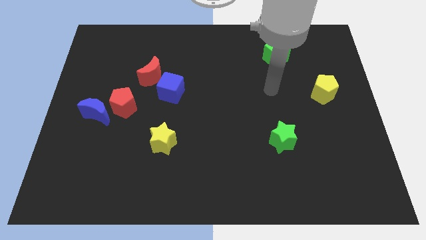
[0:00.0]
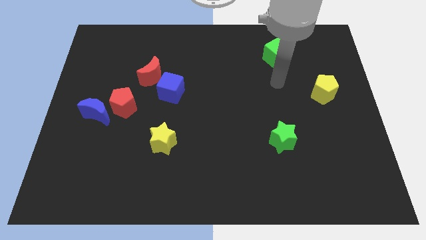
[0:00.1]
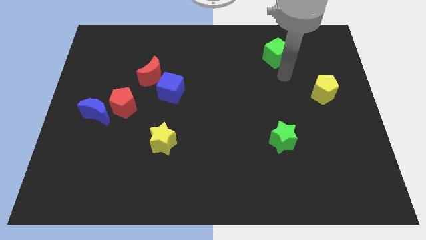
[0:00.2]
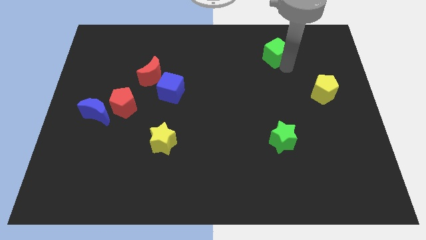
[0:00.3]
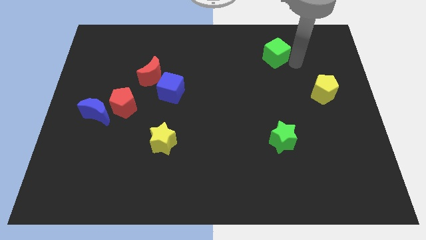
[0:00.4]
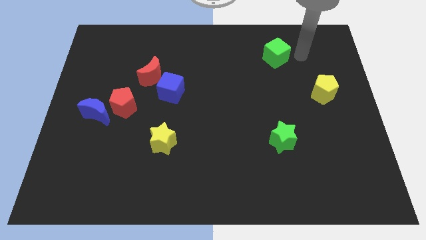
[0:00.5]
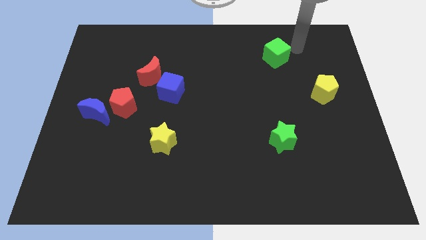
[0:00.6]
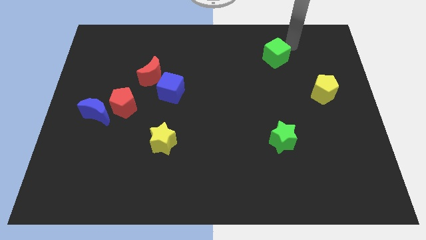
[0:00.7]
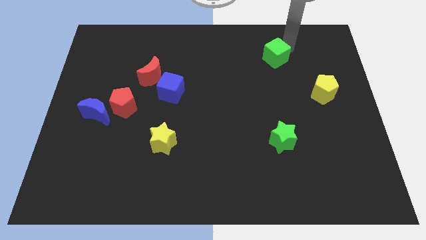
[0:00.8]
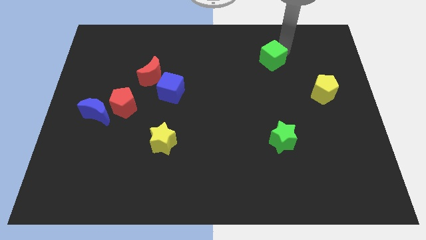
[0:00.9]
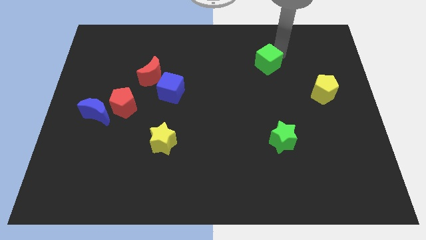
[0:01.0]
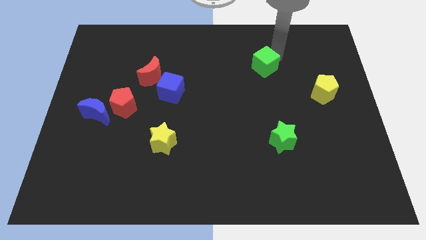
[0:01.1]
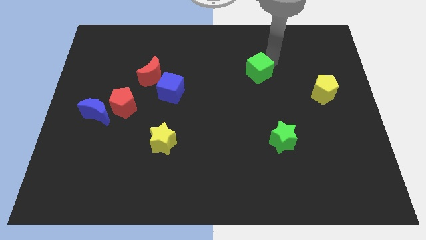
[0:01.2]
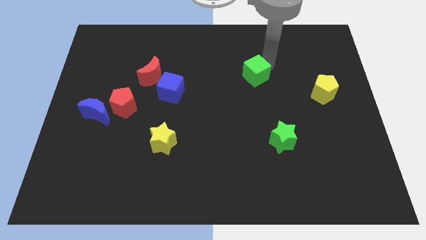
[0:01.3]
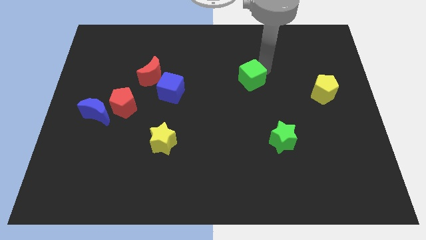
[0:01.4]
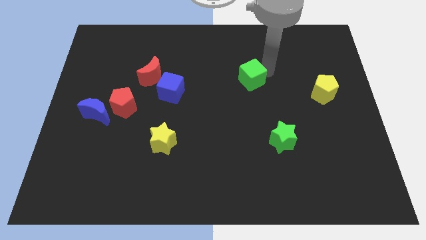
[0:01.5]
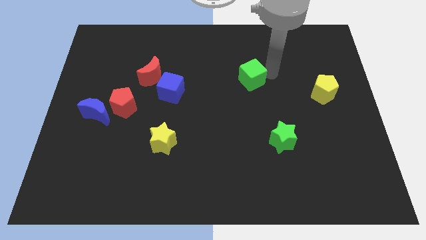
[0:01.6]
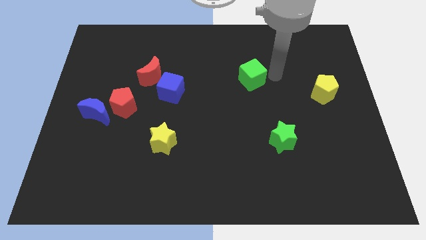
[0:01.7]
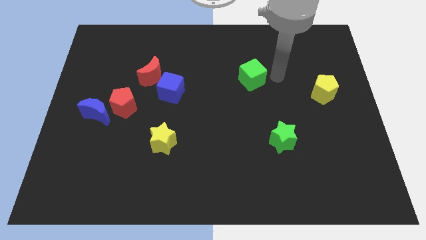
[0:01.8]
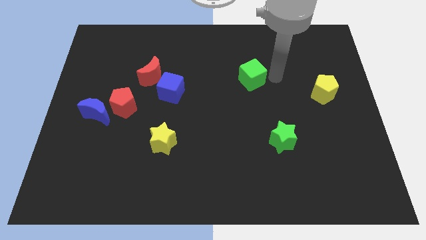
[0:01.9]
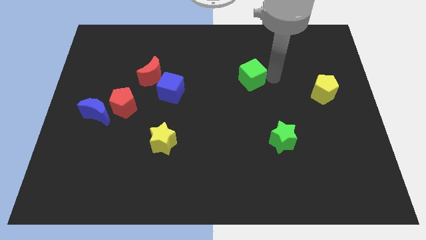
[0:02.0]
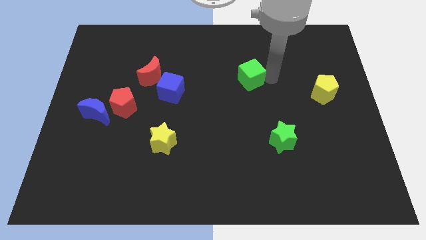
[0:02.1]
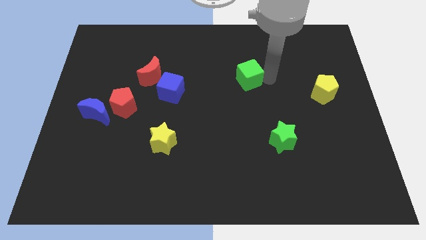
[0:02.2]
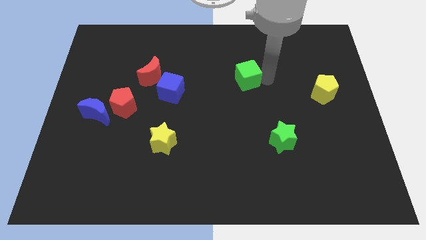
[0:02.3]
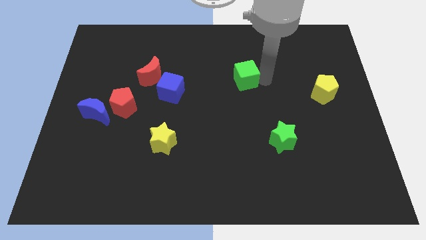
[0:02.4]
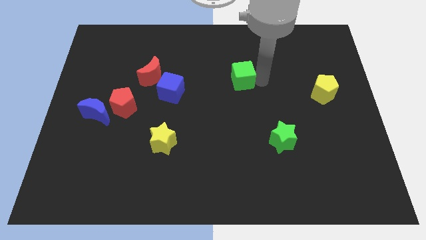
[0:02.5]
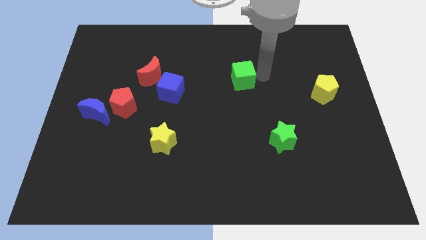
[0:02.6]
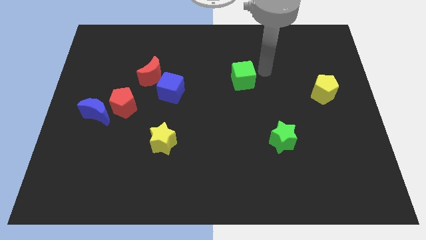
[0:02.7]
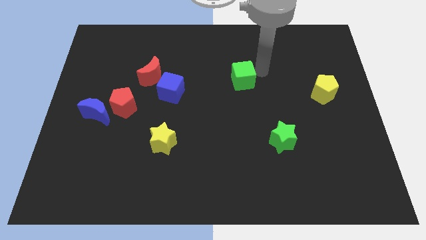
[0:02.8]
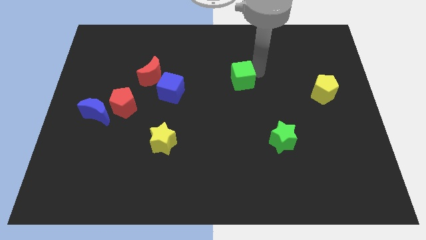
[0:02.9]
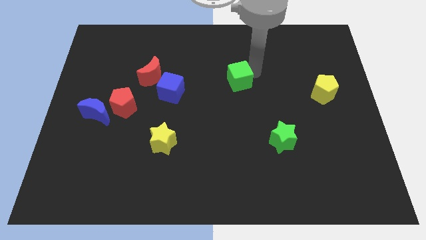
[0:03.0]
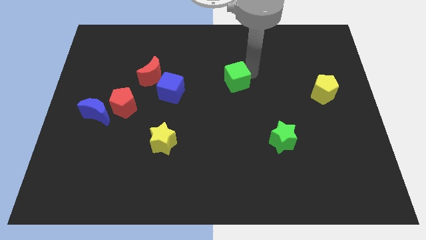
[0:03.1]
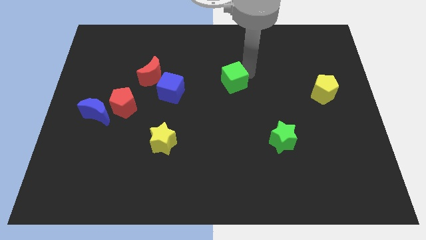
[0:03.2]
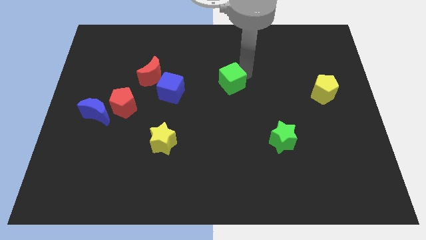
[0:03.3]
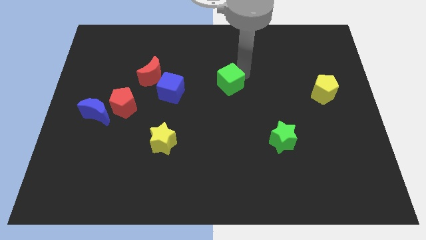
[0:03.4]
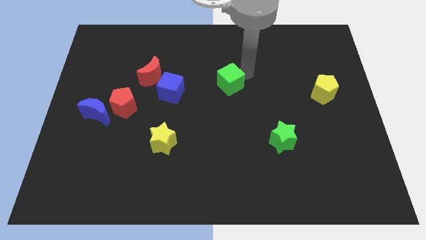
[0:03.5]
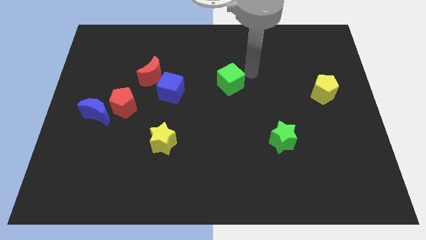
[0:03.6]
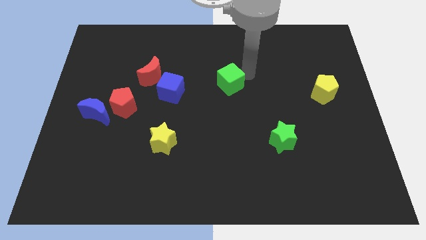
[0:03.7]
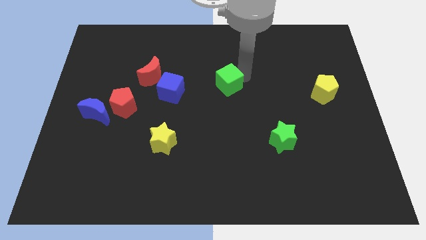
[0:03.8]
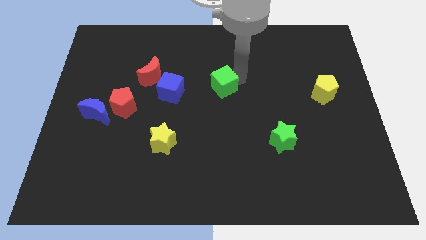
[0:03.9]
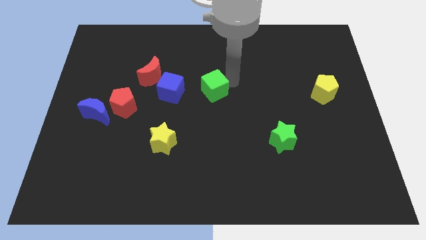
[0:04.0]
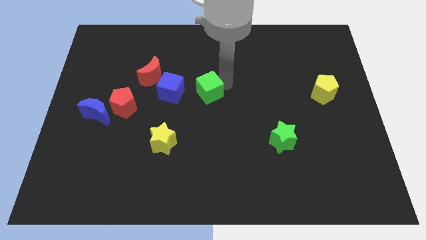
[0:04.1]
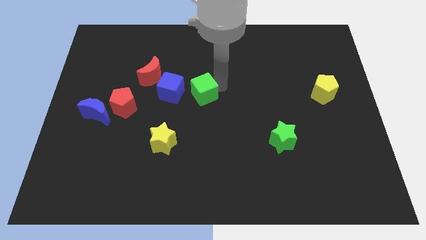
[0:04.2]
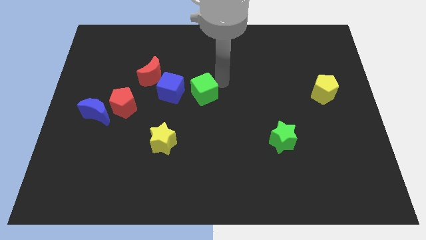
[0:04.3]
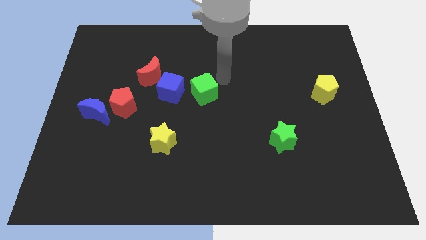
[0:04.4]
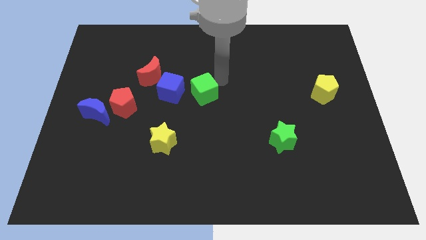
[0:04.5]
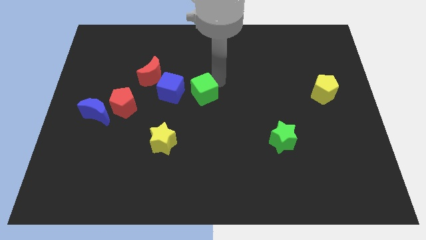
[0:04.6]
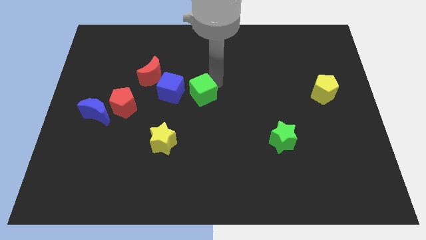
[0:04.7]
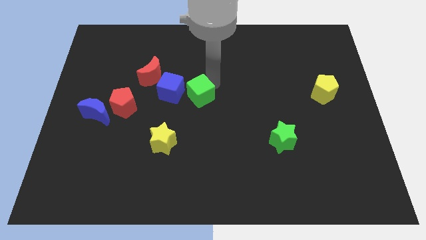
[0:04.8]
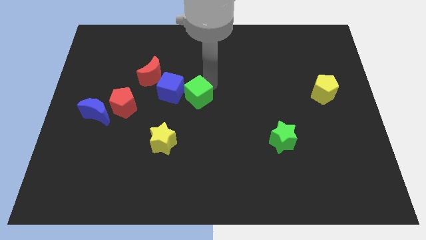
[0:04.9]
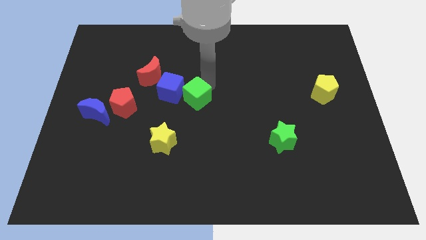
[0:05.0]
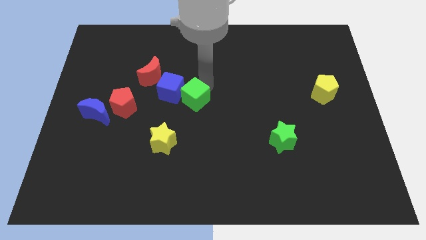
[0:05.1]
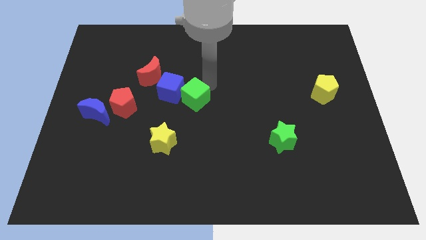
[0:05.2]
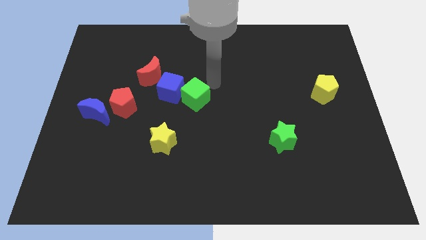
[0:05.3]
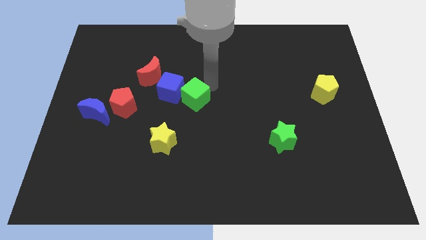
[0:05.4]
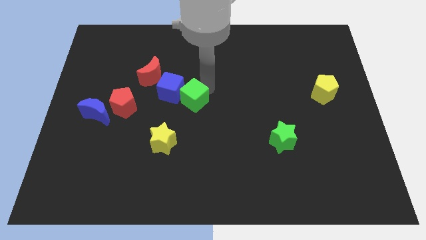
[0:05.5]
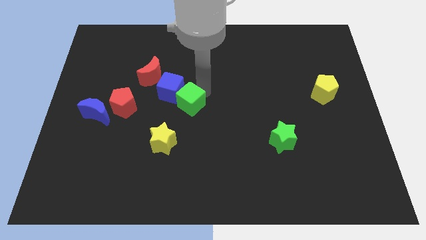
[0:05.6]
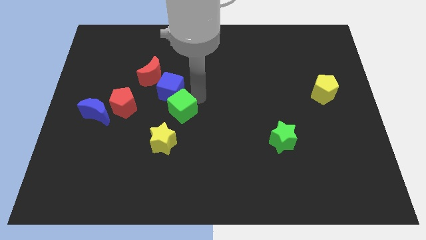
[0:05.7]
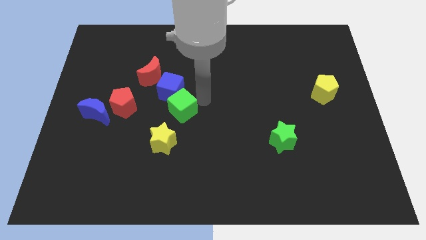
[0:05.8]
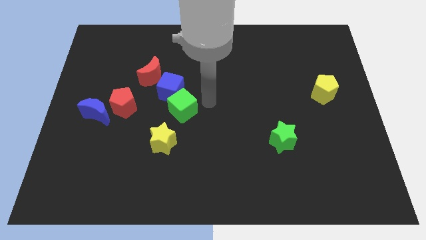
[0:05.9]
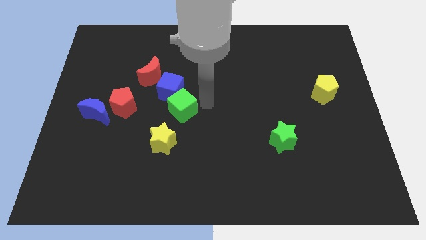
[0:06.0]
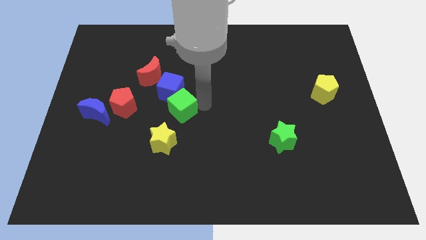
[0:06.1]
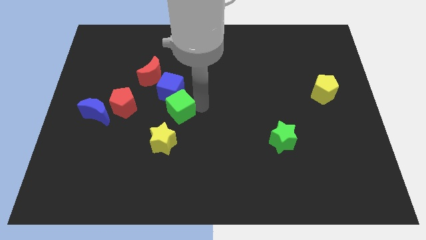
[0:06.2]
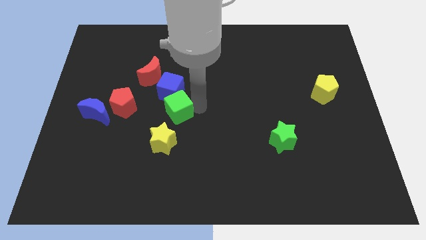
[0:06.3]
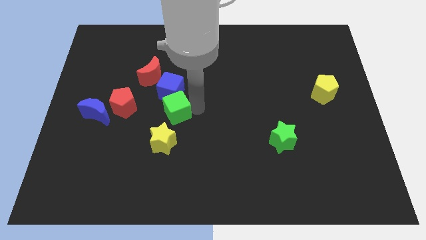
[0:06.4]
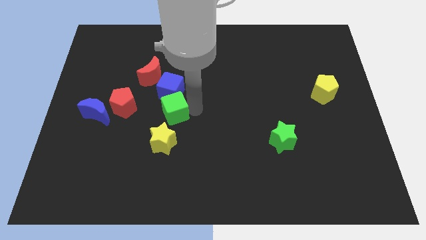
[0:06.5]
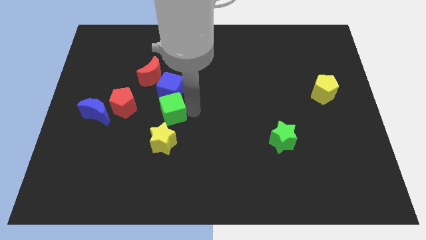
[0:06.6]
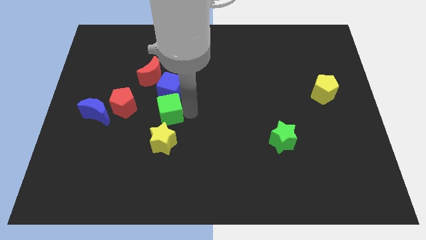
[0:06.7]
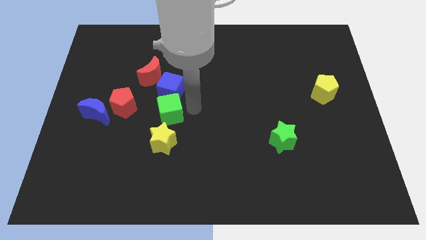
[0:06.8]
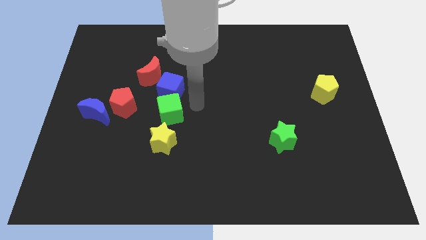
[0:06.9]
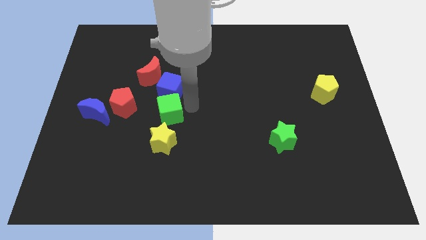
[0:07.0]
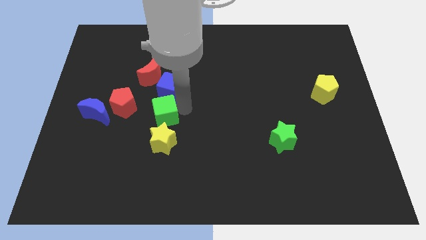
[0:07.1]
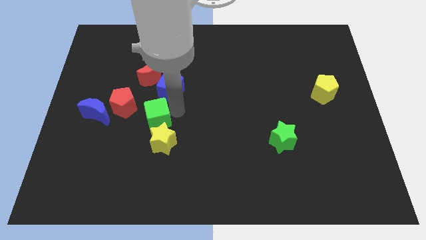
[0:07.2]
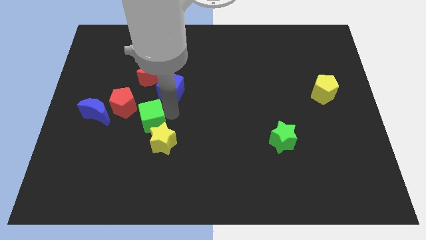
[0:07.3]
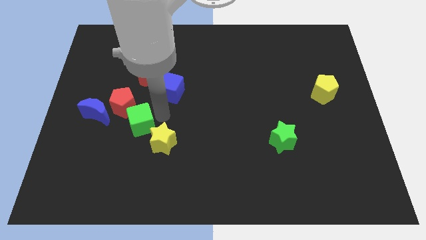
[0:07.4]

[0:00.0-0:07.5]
push the green cube just left of the yellow star
